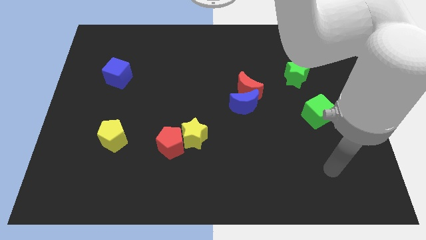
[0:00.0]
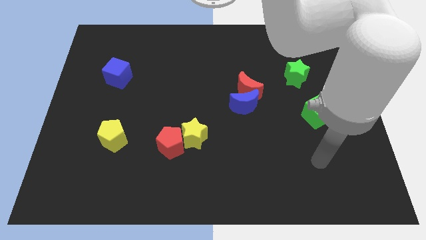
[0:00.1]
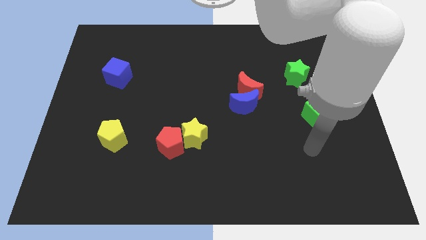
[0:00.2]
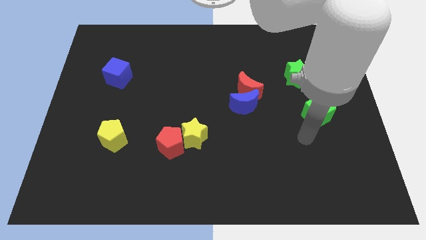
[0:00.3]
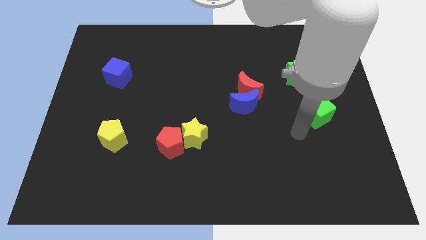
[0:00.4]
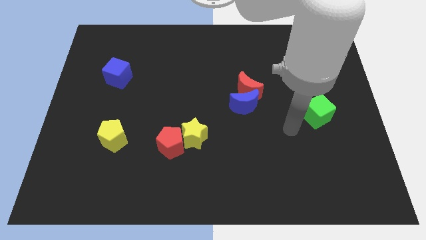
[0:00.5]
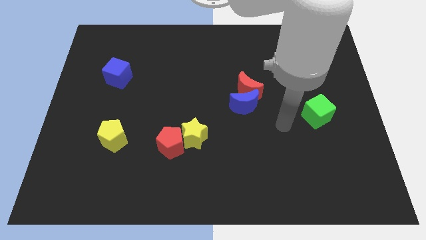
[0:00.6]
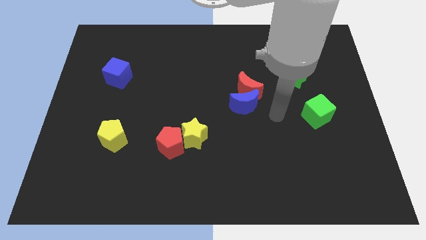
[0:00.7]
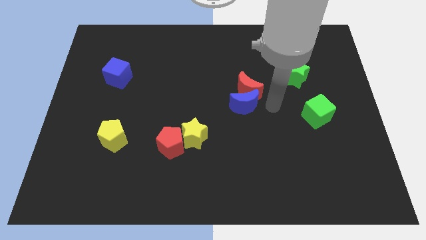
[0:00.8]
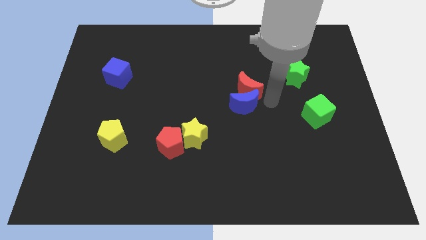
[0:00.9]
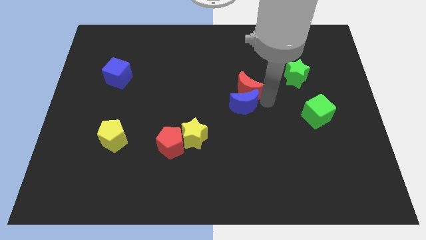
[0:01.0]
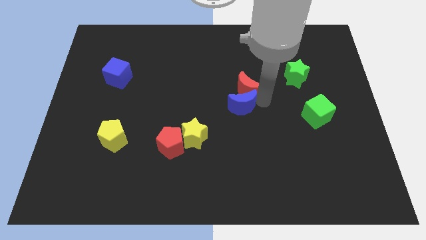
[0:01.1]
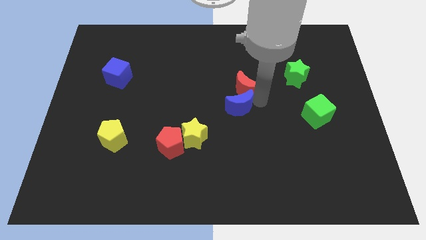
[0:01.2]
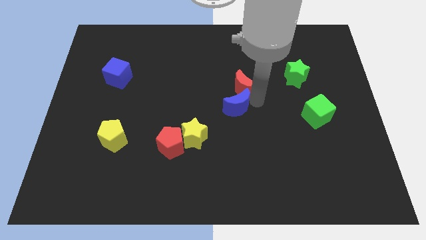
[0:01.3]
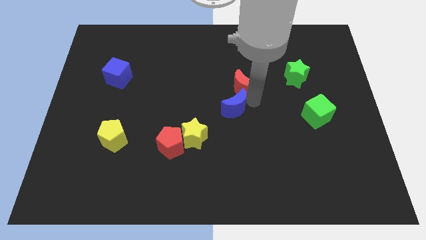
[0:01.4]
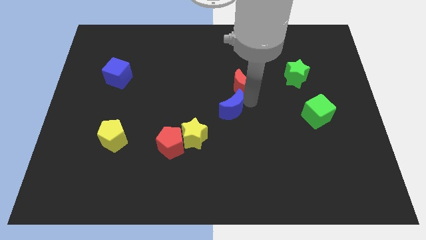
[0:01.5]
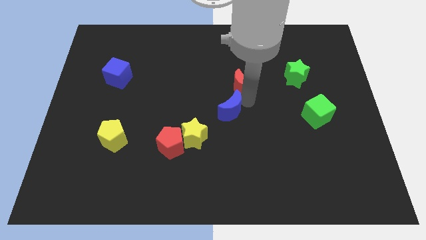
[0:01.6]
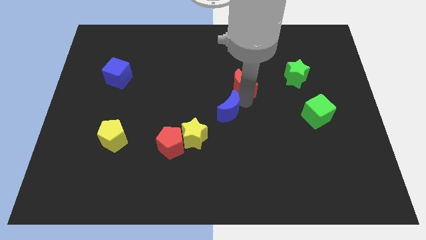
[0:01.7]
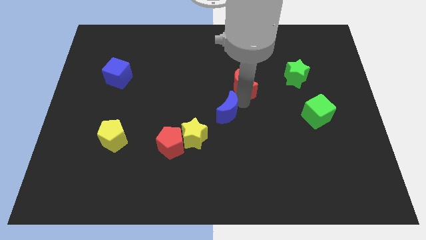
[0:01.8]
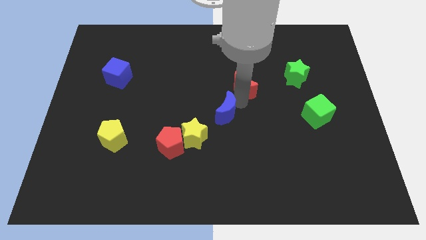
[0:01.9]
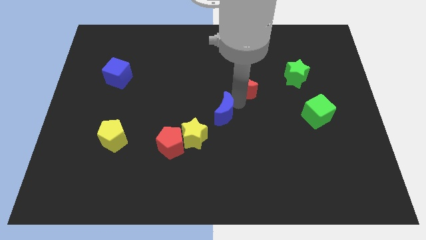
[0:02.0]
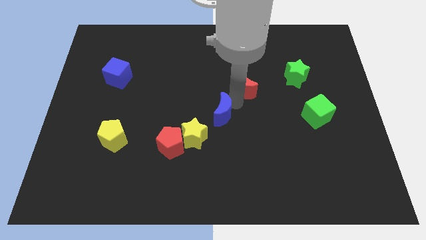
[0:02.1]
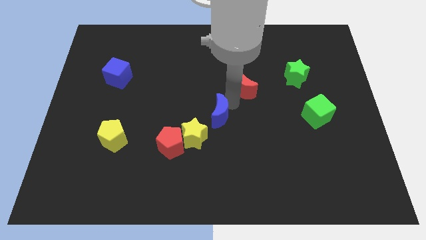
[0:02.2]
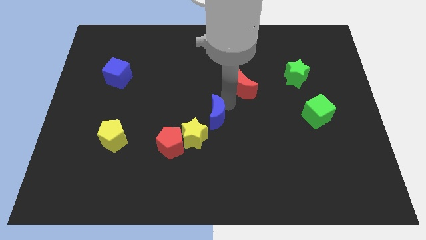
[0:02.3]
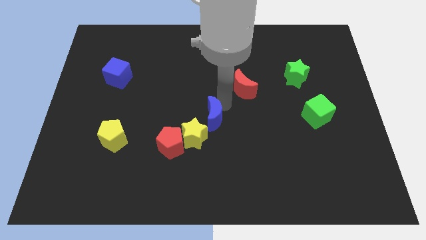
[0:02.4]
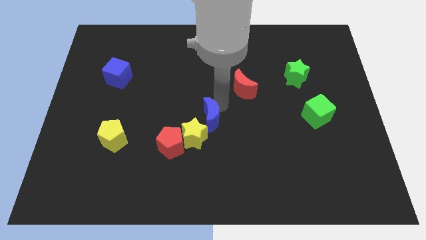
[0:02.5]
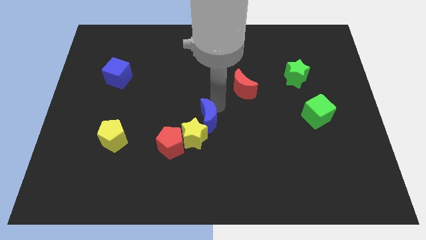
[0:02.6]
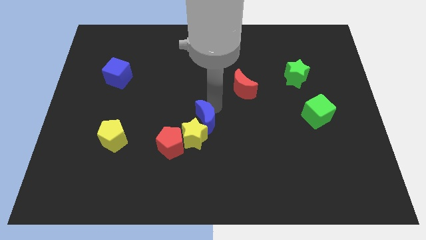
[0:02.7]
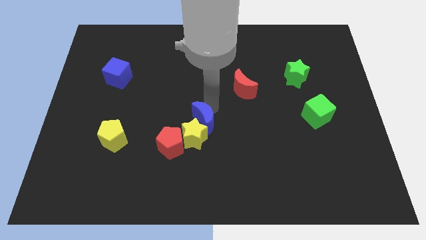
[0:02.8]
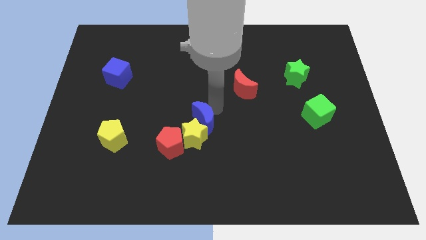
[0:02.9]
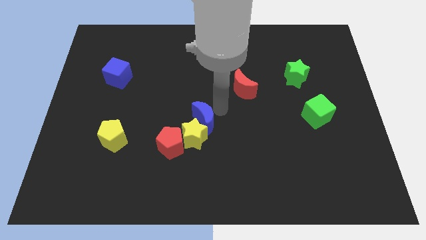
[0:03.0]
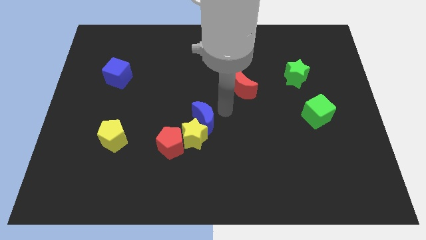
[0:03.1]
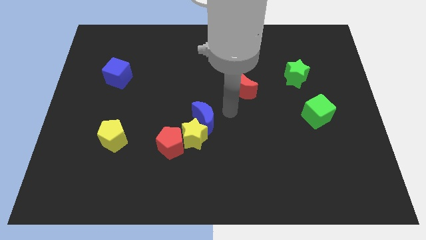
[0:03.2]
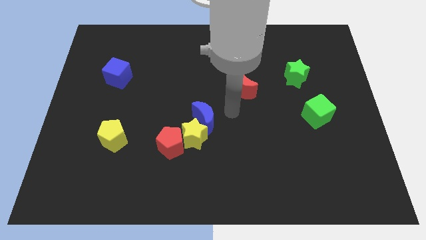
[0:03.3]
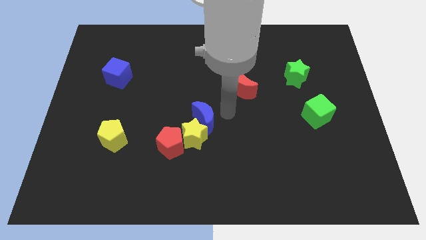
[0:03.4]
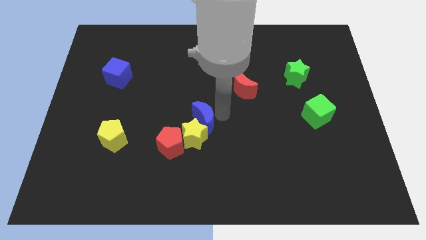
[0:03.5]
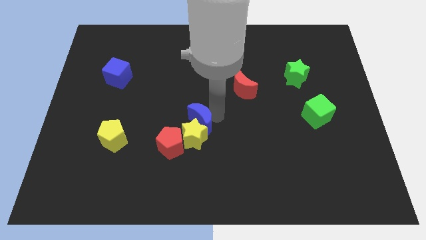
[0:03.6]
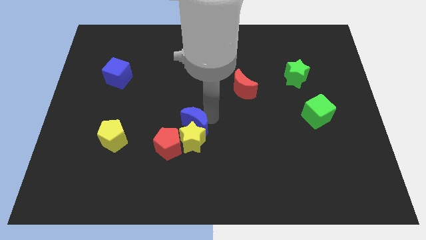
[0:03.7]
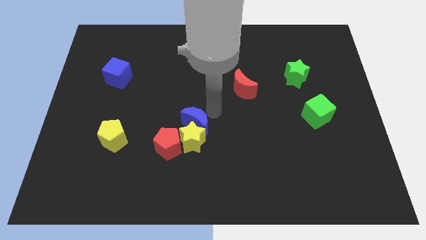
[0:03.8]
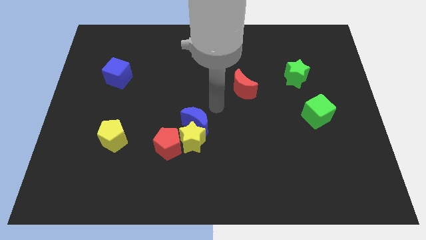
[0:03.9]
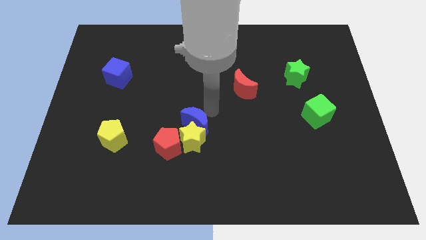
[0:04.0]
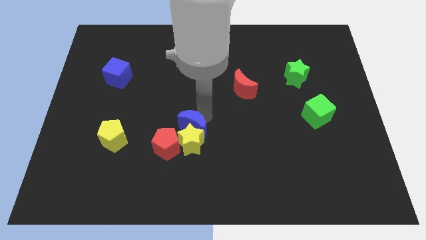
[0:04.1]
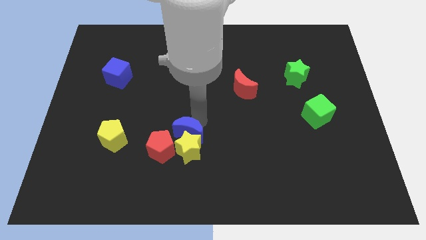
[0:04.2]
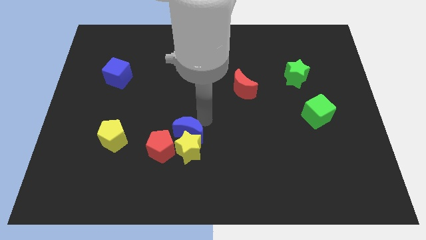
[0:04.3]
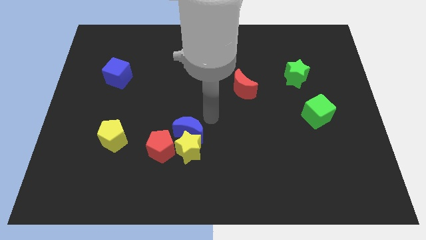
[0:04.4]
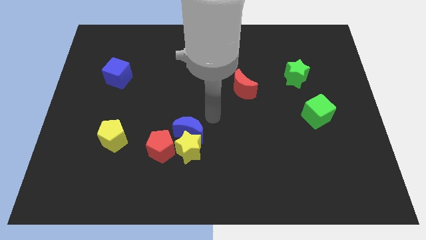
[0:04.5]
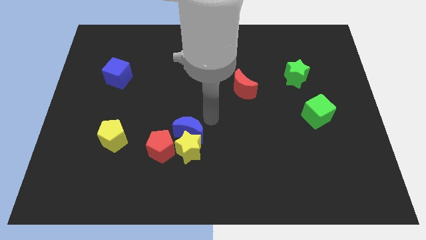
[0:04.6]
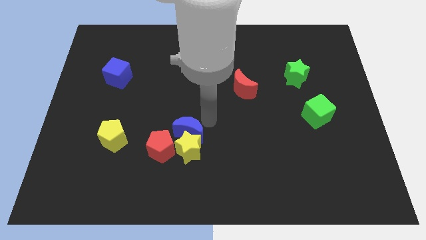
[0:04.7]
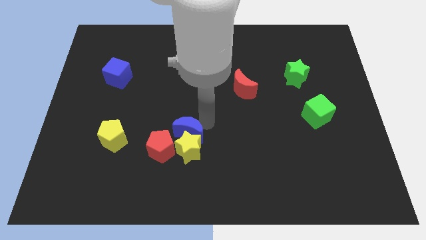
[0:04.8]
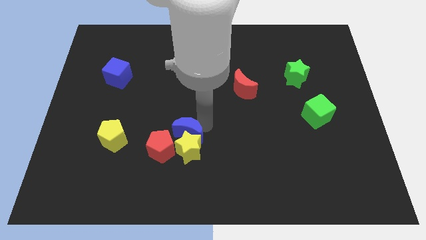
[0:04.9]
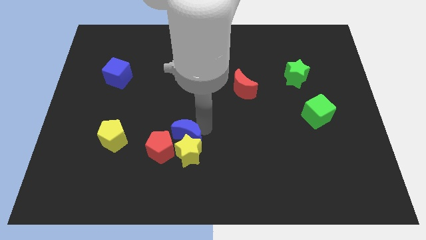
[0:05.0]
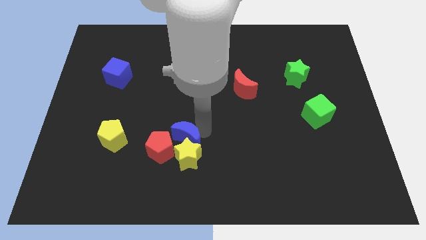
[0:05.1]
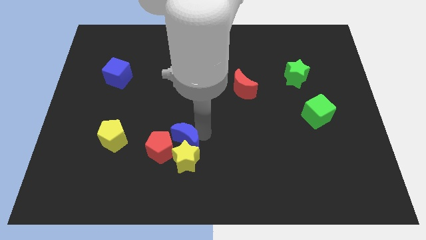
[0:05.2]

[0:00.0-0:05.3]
move the blue moon close to the red pentagon
